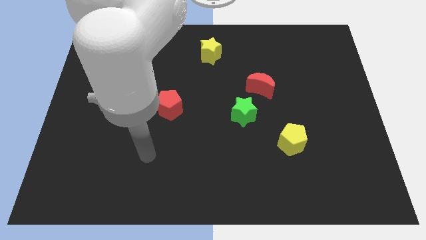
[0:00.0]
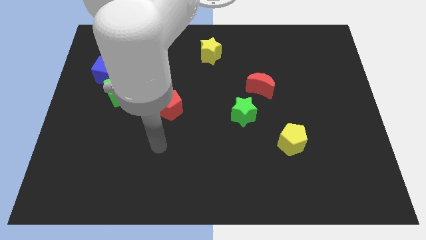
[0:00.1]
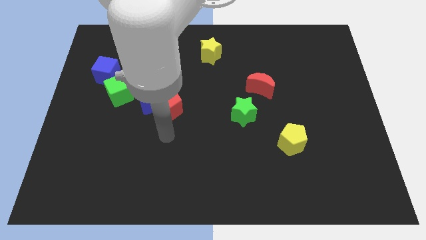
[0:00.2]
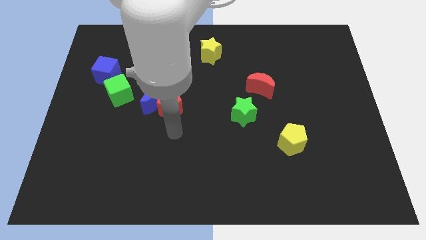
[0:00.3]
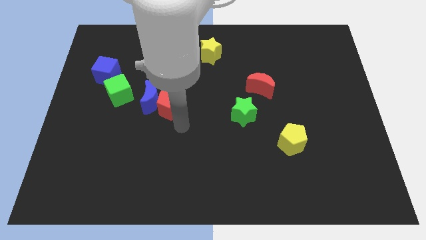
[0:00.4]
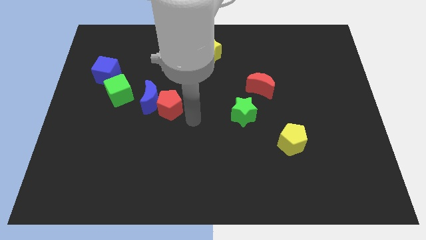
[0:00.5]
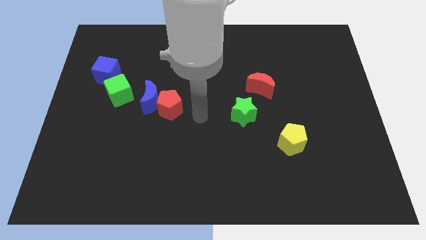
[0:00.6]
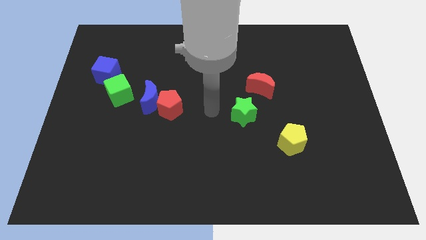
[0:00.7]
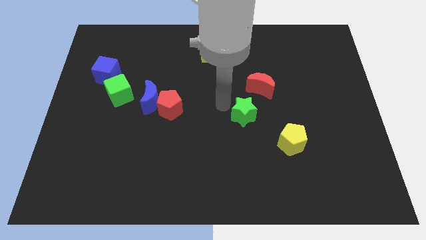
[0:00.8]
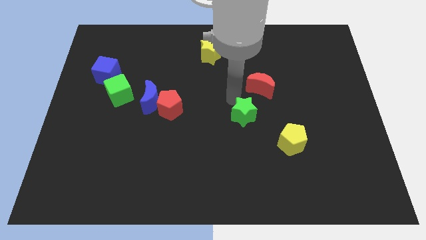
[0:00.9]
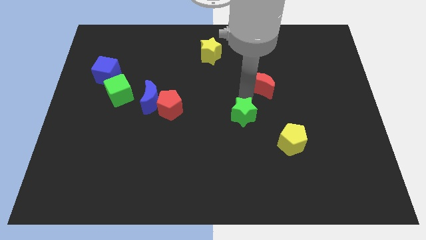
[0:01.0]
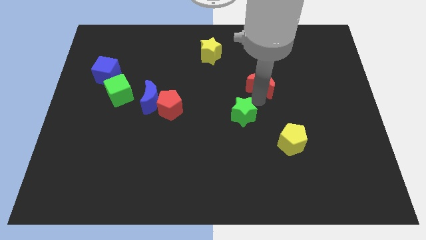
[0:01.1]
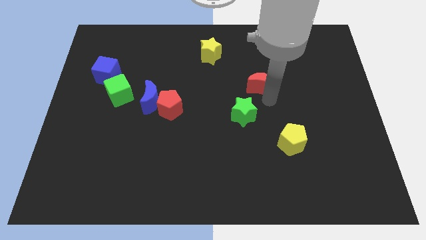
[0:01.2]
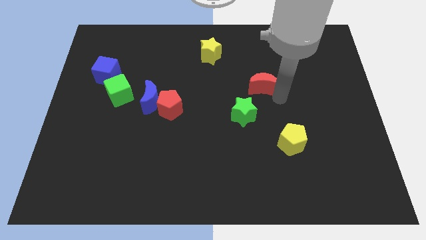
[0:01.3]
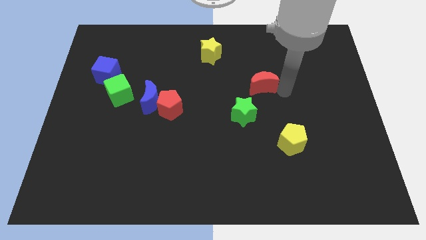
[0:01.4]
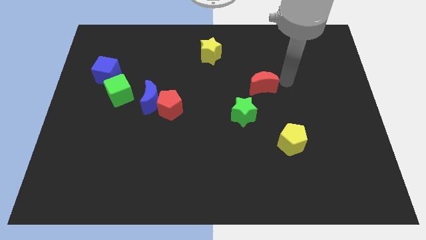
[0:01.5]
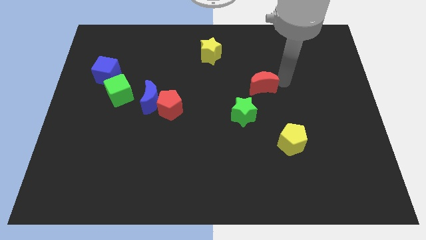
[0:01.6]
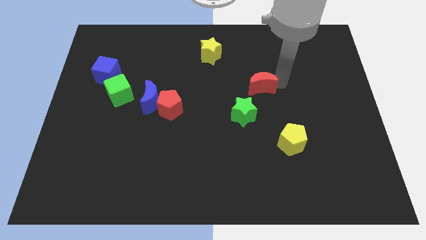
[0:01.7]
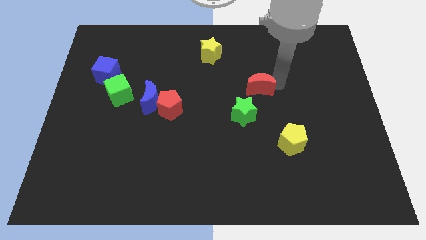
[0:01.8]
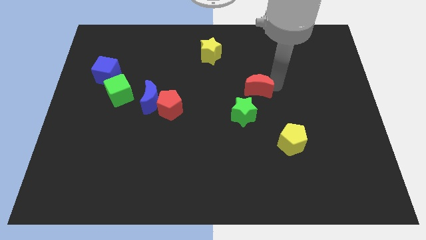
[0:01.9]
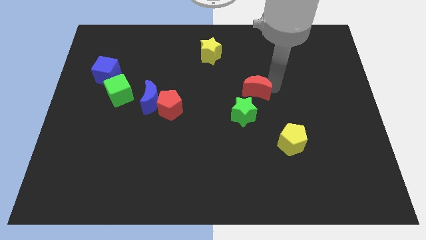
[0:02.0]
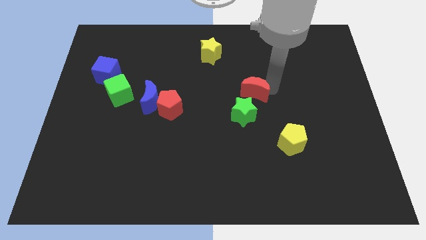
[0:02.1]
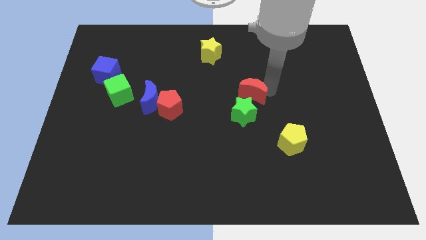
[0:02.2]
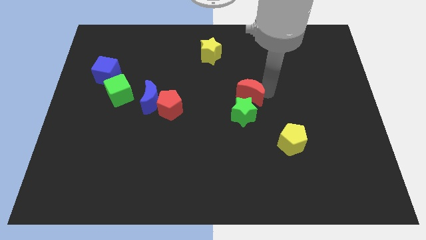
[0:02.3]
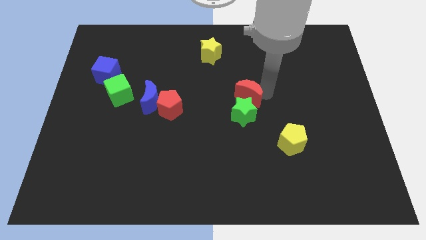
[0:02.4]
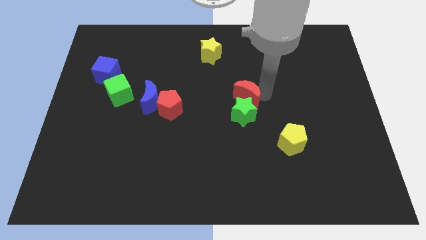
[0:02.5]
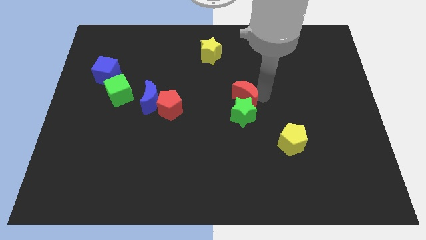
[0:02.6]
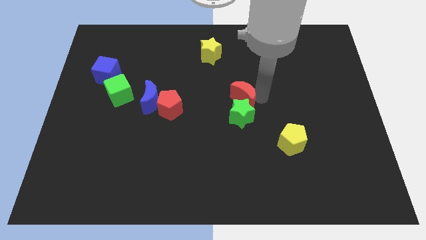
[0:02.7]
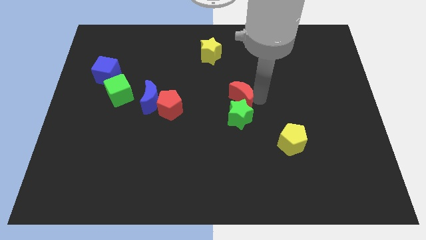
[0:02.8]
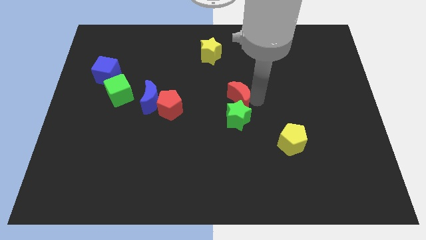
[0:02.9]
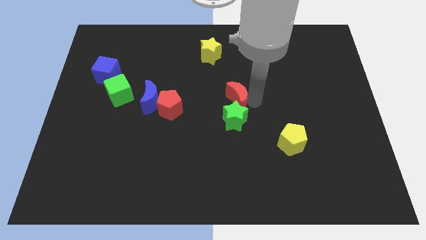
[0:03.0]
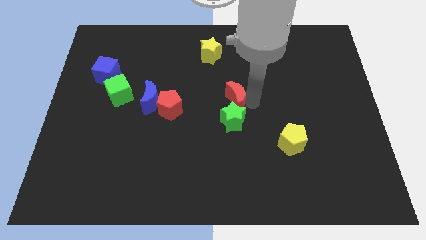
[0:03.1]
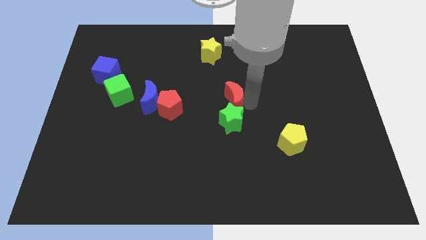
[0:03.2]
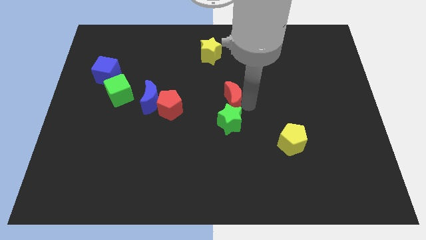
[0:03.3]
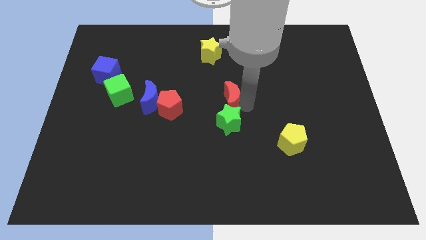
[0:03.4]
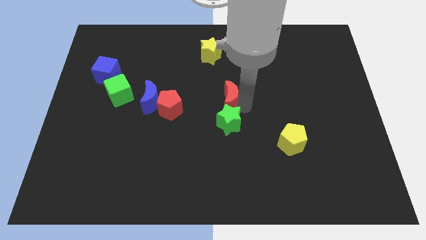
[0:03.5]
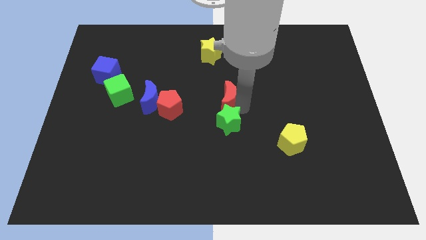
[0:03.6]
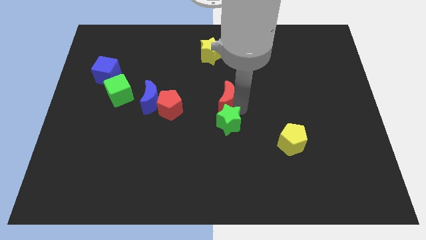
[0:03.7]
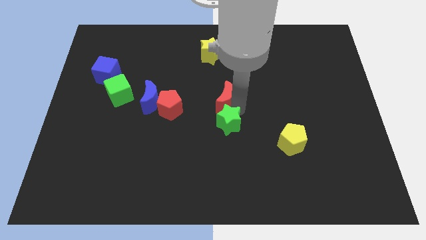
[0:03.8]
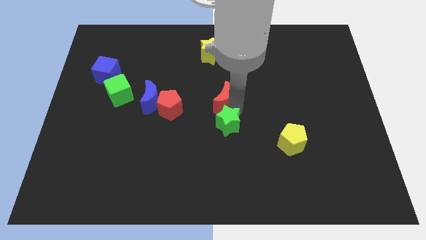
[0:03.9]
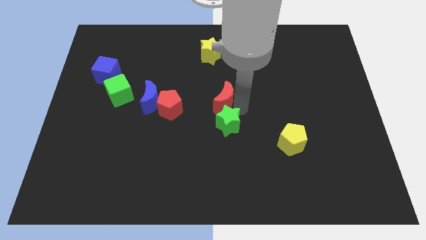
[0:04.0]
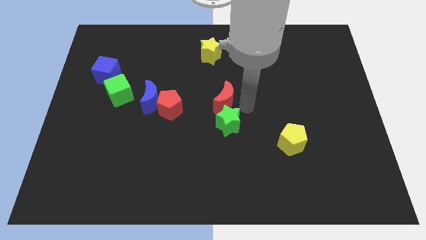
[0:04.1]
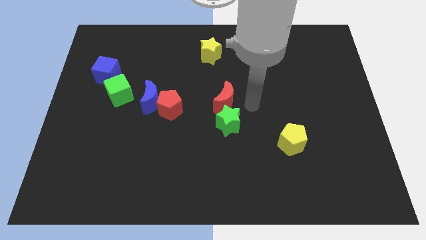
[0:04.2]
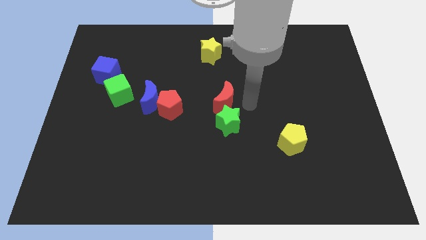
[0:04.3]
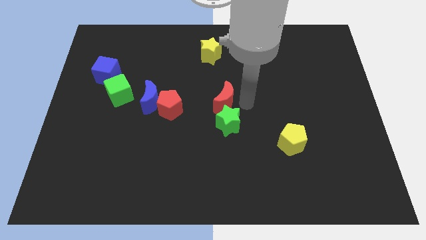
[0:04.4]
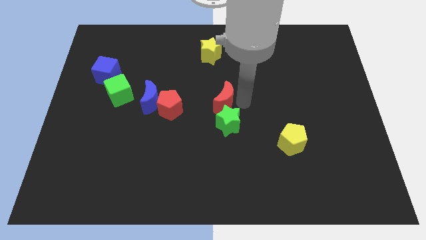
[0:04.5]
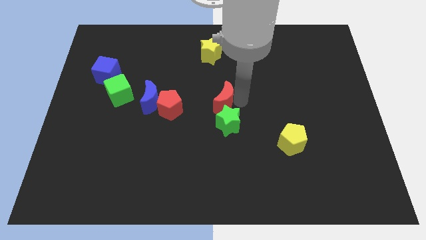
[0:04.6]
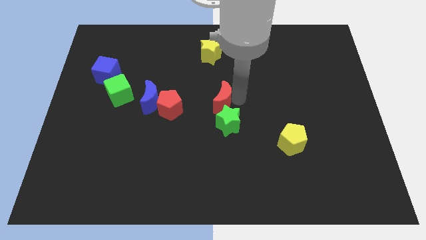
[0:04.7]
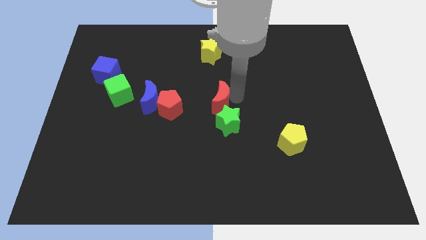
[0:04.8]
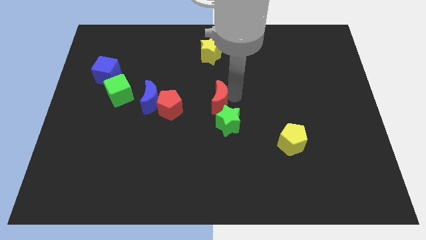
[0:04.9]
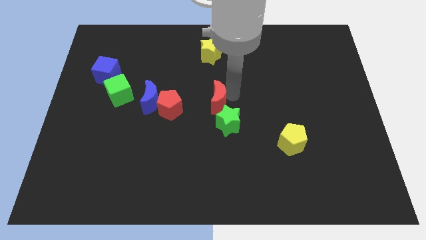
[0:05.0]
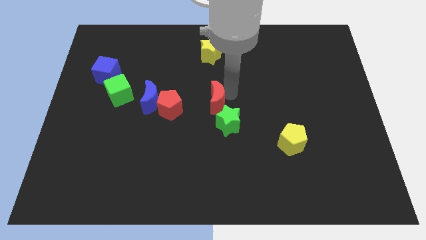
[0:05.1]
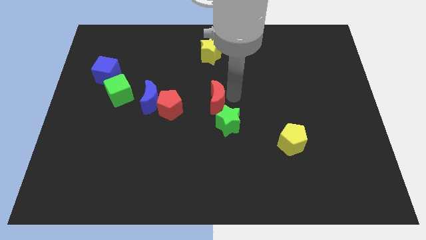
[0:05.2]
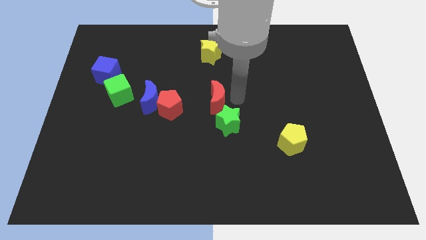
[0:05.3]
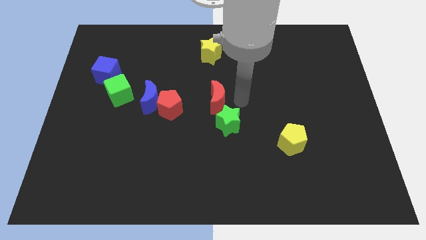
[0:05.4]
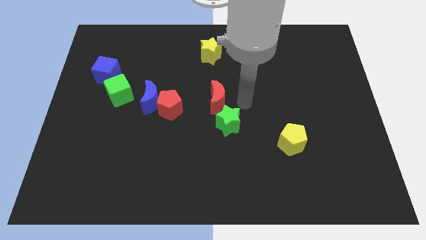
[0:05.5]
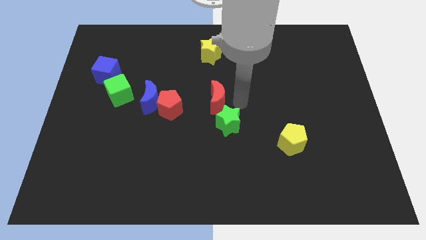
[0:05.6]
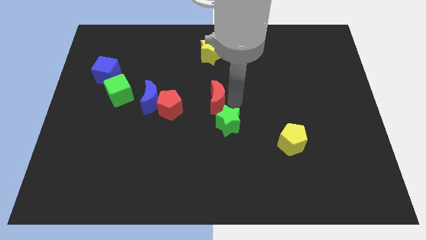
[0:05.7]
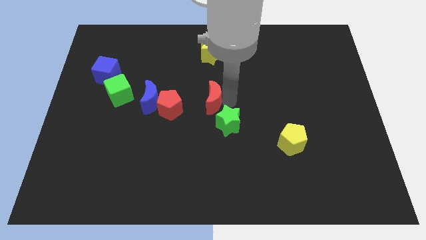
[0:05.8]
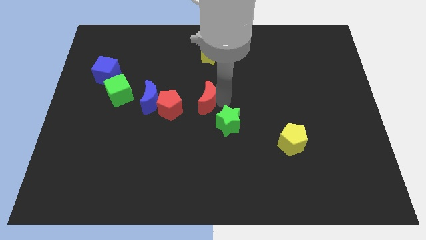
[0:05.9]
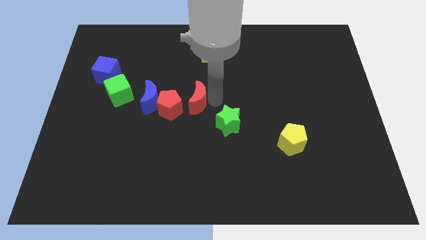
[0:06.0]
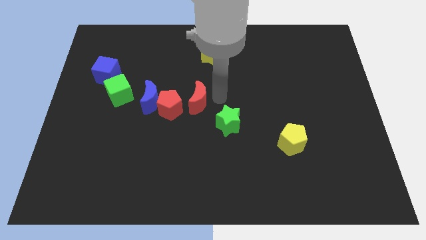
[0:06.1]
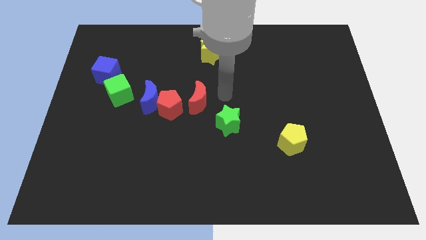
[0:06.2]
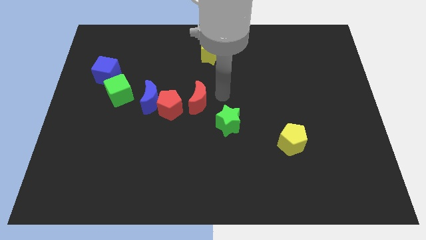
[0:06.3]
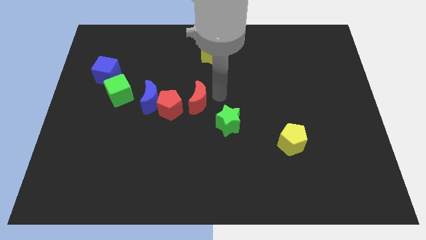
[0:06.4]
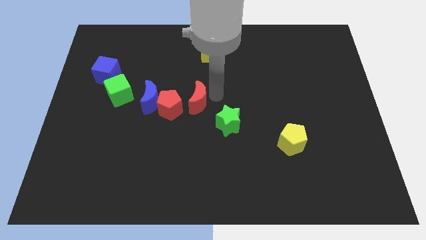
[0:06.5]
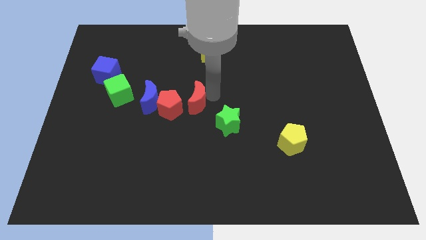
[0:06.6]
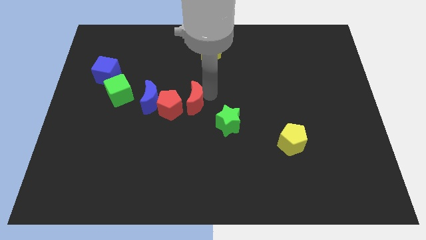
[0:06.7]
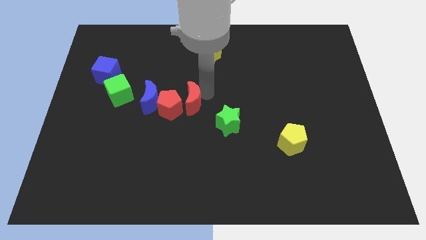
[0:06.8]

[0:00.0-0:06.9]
slide the red moon next to the red pentagon
